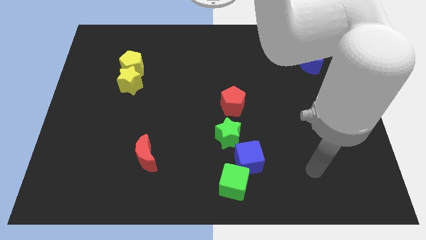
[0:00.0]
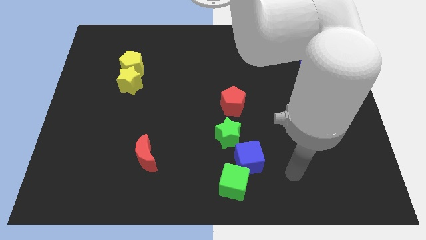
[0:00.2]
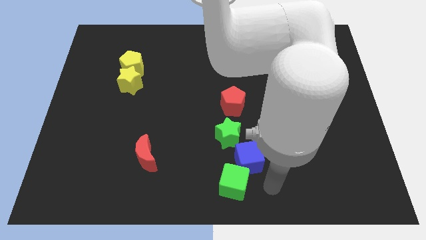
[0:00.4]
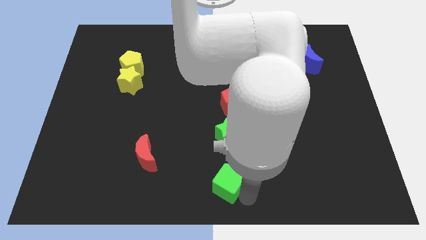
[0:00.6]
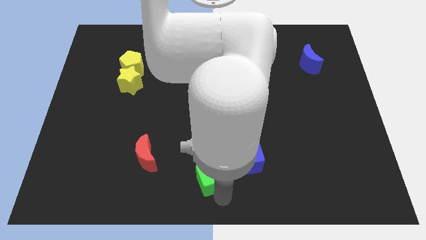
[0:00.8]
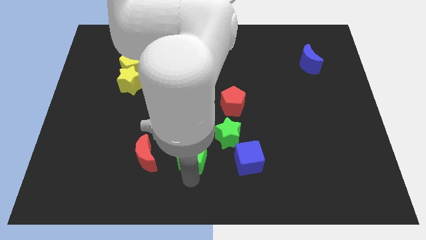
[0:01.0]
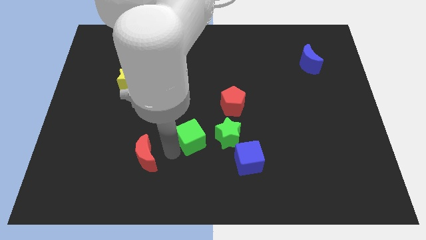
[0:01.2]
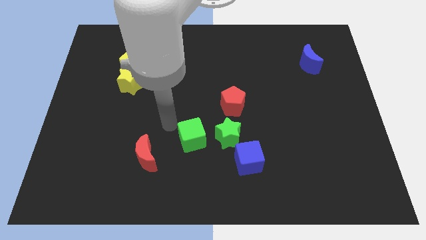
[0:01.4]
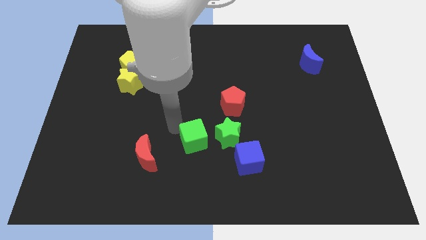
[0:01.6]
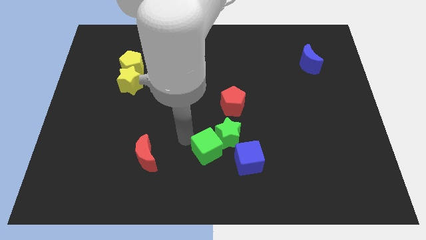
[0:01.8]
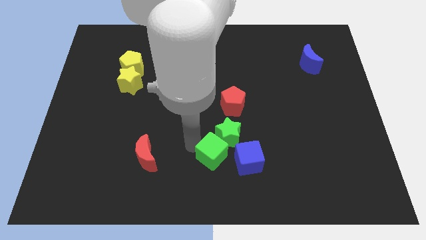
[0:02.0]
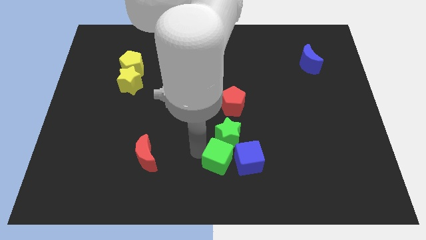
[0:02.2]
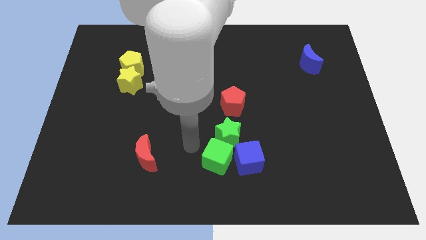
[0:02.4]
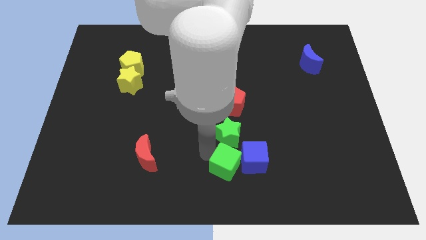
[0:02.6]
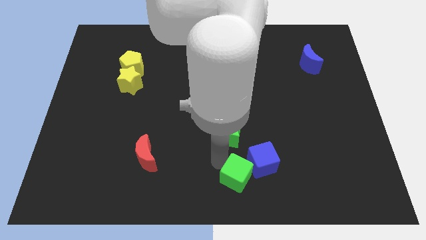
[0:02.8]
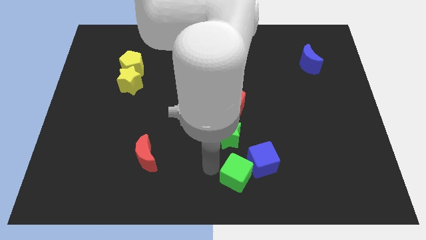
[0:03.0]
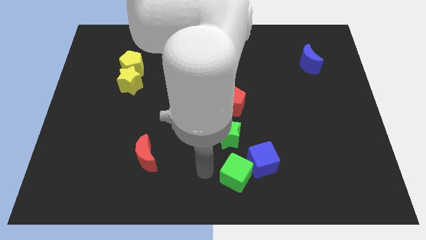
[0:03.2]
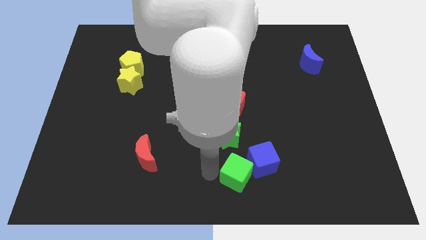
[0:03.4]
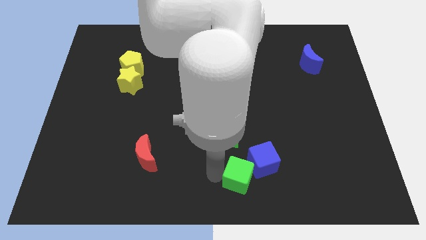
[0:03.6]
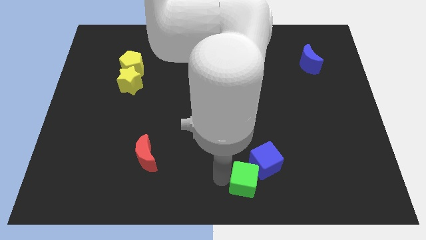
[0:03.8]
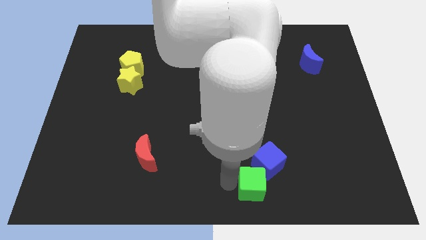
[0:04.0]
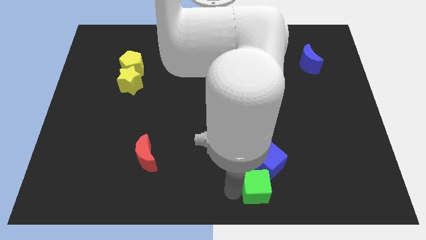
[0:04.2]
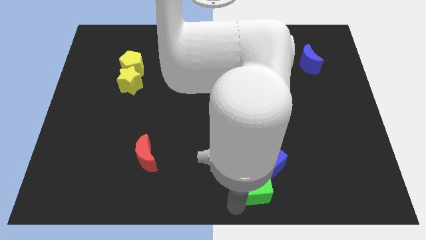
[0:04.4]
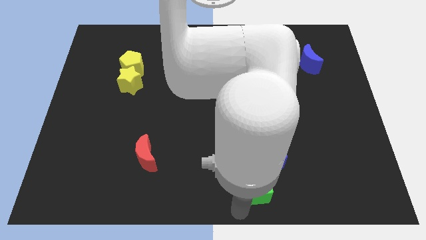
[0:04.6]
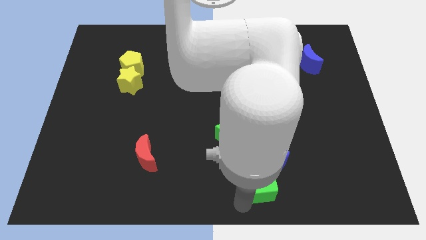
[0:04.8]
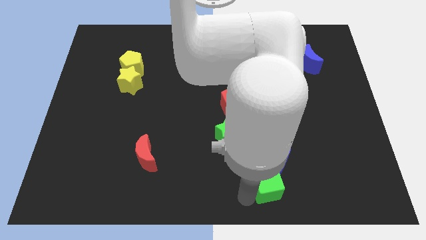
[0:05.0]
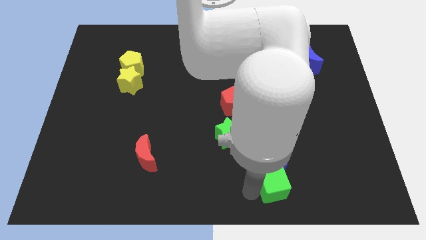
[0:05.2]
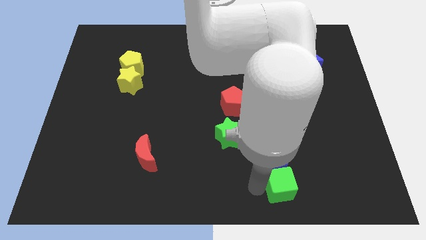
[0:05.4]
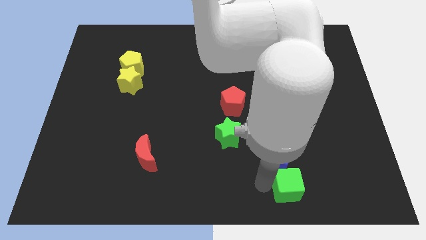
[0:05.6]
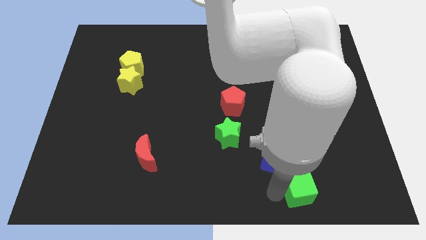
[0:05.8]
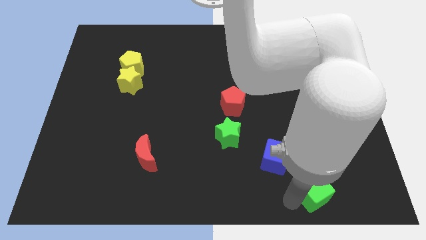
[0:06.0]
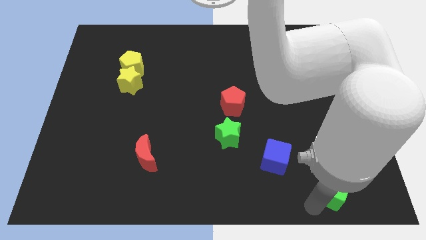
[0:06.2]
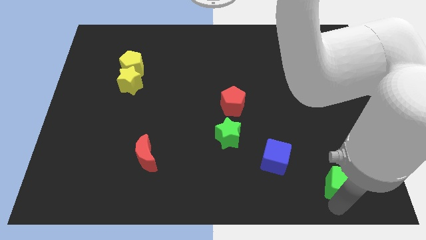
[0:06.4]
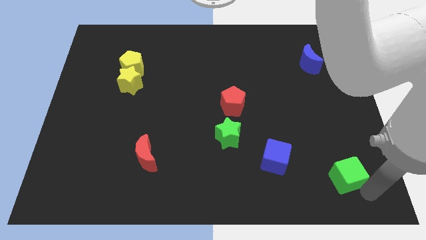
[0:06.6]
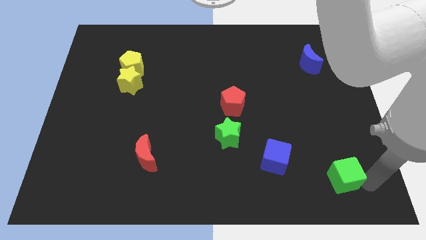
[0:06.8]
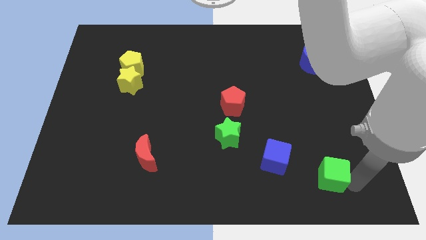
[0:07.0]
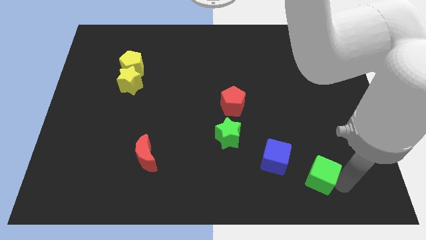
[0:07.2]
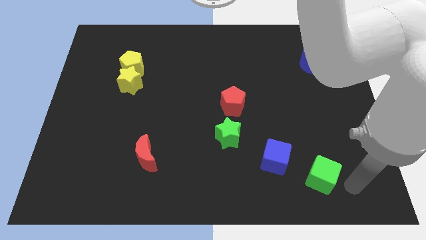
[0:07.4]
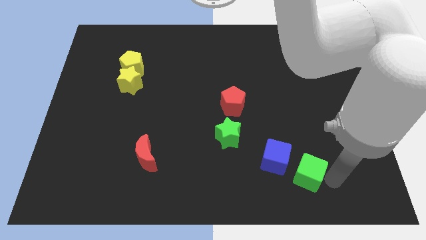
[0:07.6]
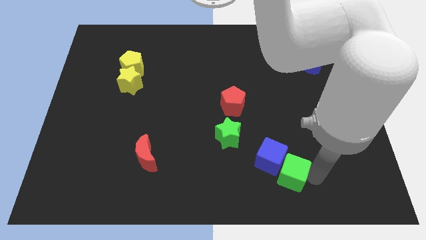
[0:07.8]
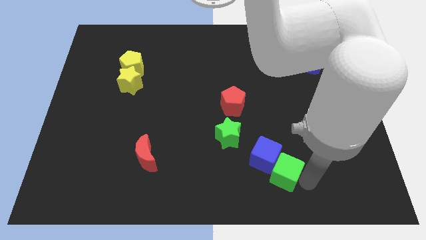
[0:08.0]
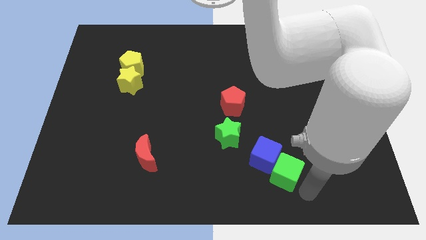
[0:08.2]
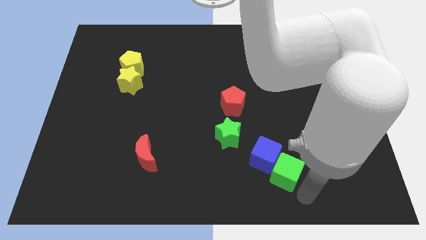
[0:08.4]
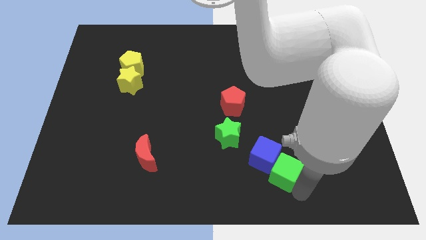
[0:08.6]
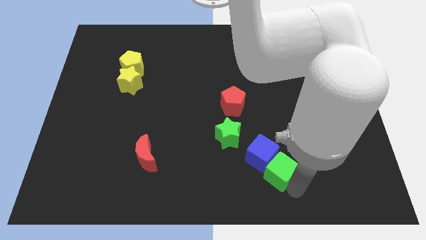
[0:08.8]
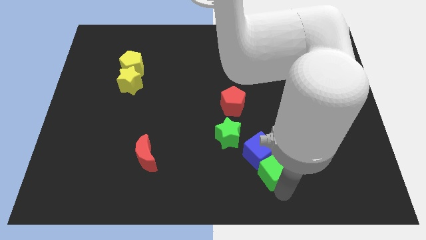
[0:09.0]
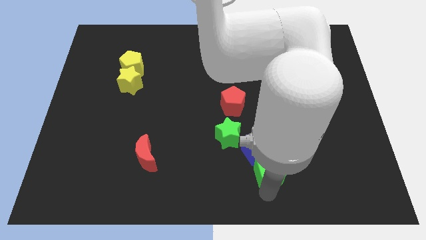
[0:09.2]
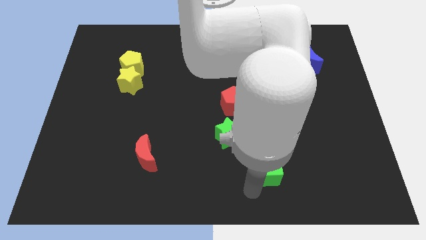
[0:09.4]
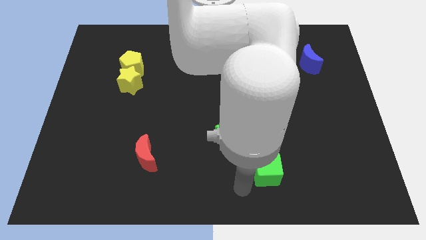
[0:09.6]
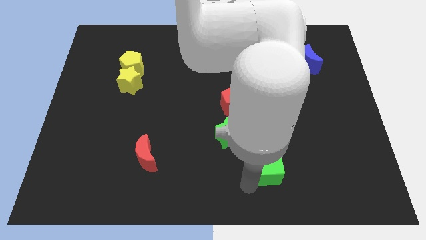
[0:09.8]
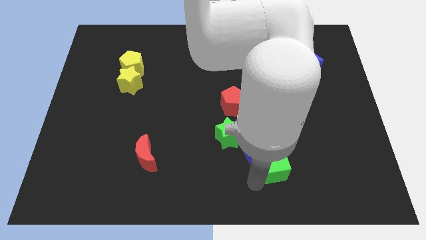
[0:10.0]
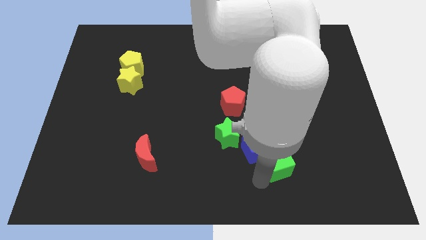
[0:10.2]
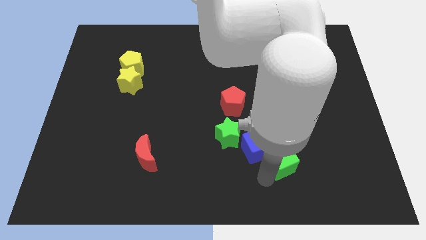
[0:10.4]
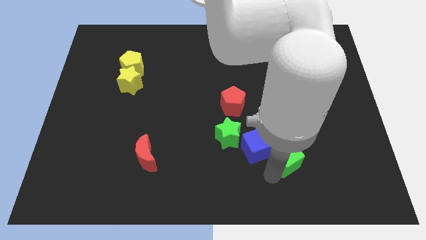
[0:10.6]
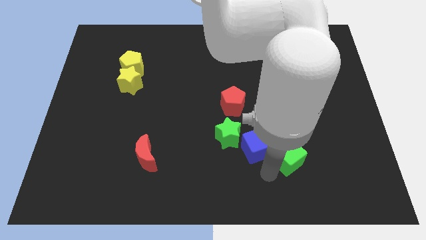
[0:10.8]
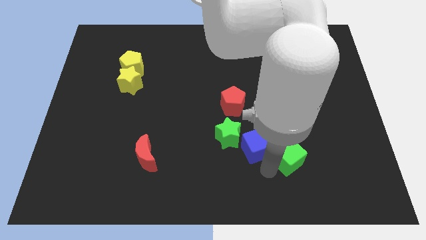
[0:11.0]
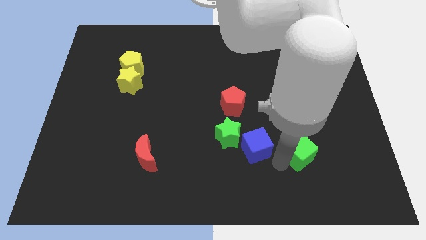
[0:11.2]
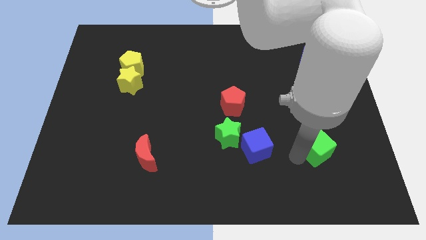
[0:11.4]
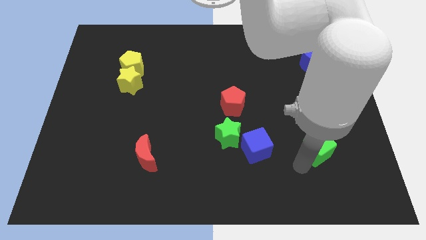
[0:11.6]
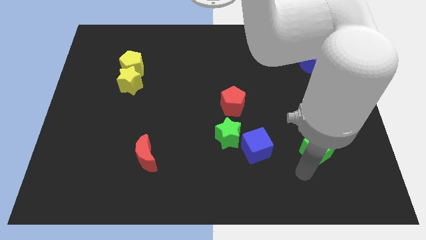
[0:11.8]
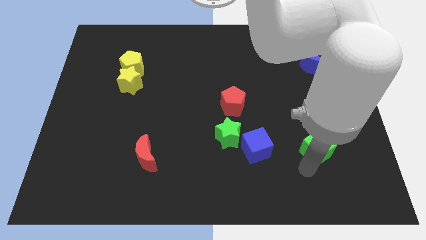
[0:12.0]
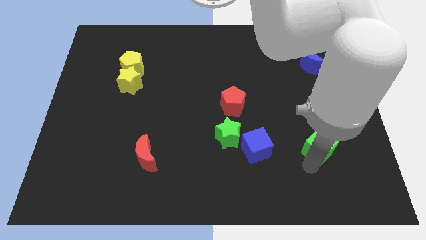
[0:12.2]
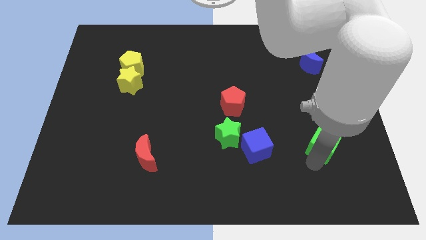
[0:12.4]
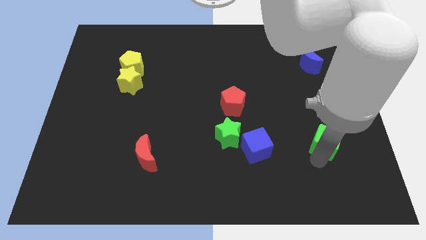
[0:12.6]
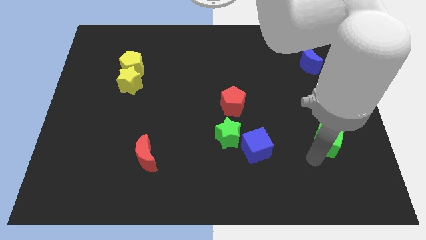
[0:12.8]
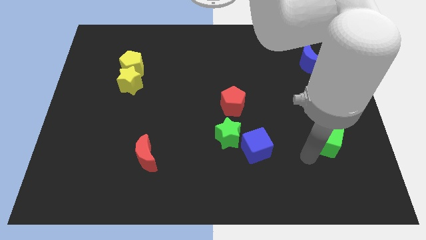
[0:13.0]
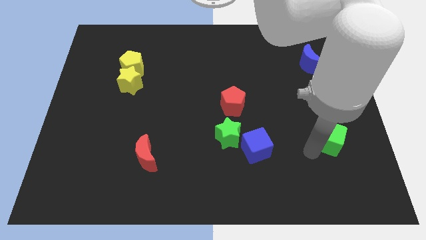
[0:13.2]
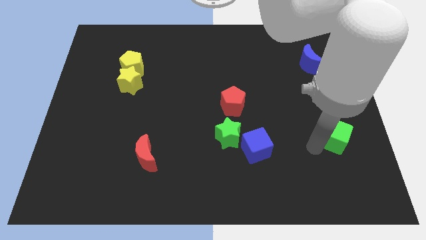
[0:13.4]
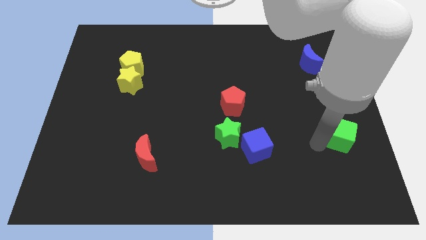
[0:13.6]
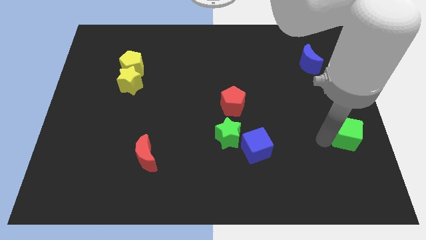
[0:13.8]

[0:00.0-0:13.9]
move the green cube to the right side of the board

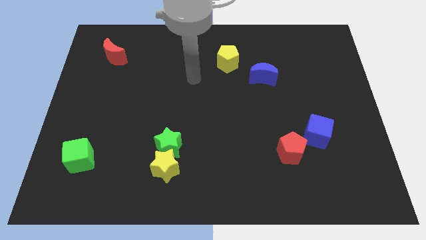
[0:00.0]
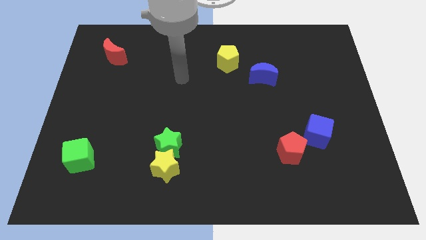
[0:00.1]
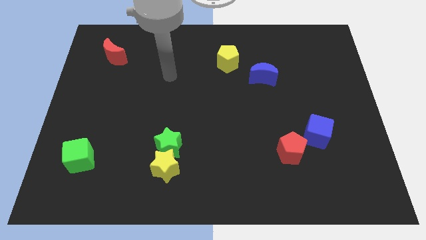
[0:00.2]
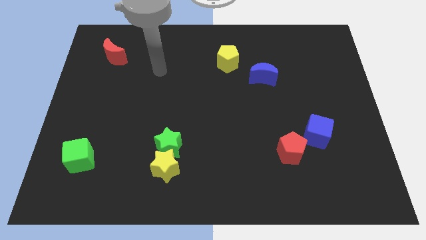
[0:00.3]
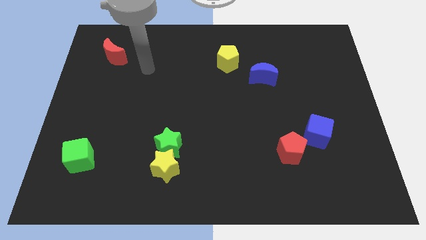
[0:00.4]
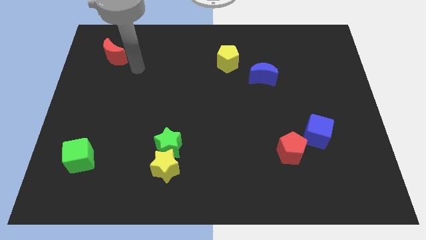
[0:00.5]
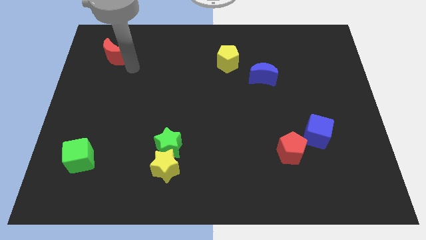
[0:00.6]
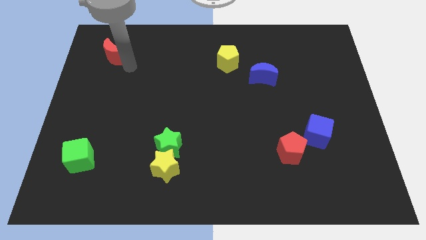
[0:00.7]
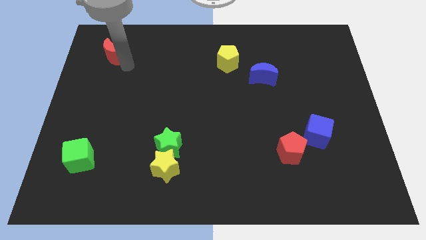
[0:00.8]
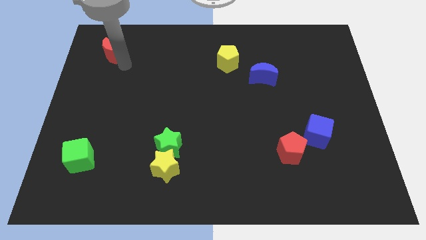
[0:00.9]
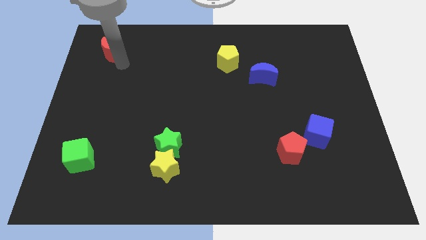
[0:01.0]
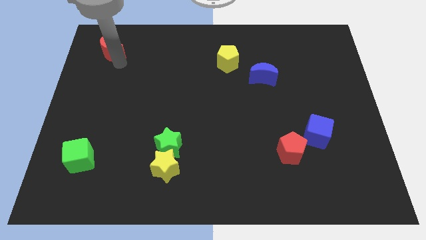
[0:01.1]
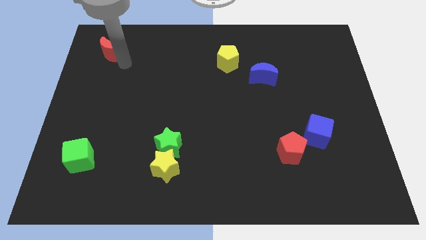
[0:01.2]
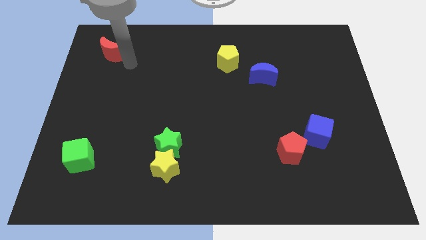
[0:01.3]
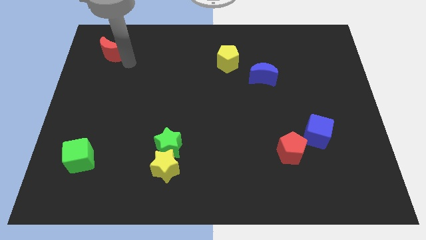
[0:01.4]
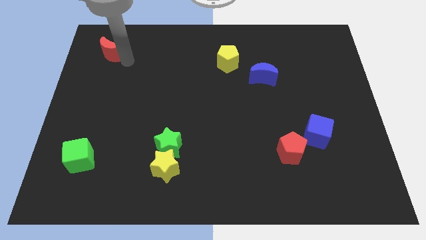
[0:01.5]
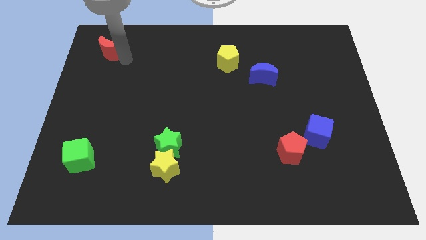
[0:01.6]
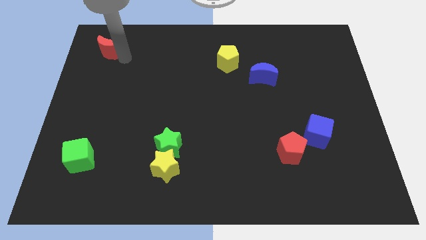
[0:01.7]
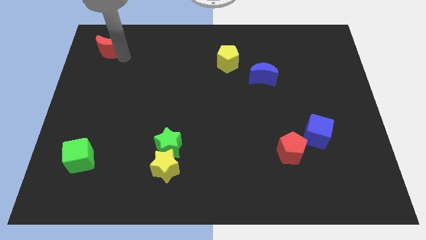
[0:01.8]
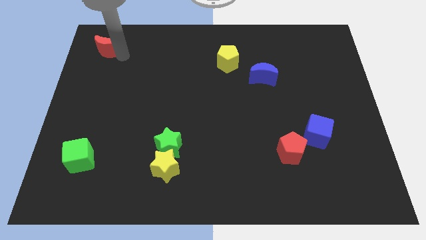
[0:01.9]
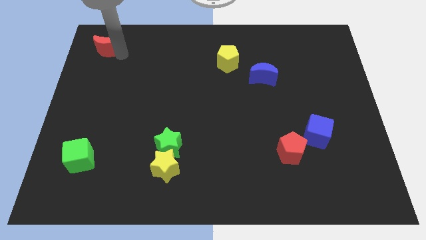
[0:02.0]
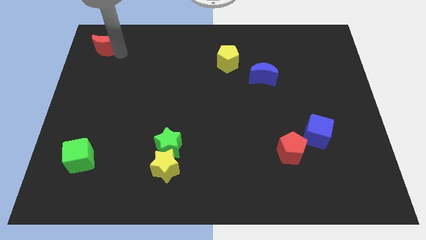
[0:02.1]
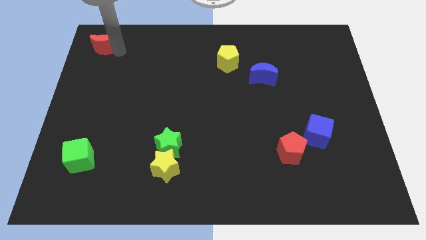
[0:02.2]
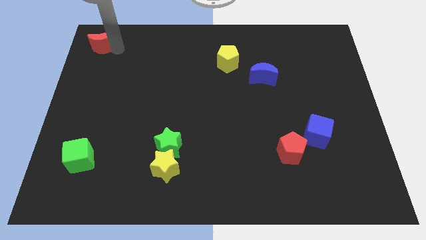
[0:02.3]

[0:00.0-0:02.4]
move the red moon to the upper left corner
